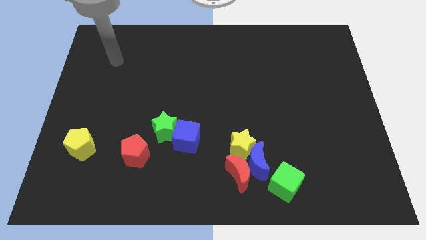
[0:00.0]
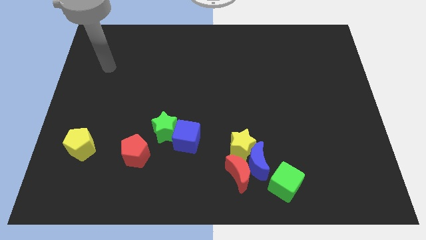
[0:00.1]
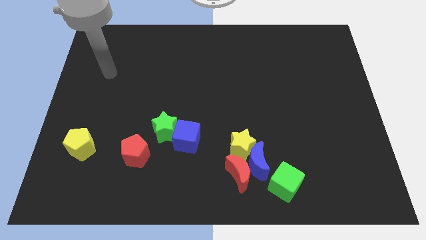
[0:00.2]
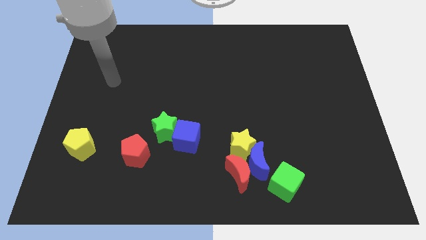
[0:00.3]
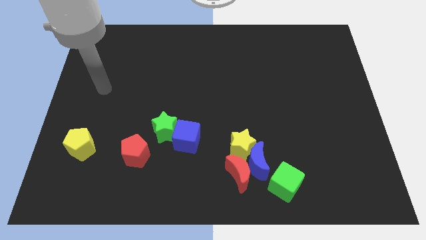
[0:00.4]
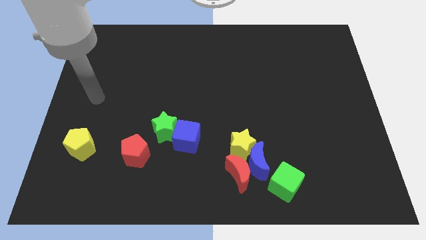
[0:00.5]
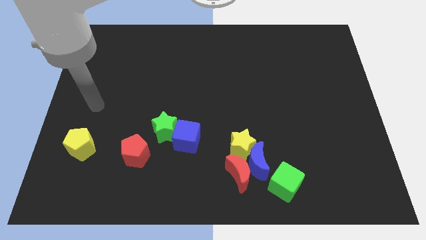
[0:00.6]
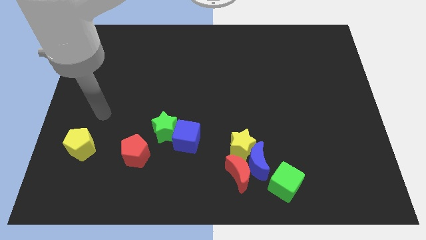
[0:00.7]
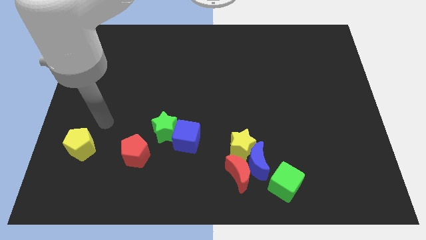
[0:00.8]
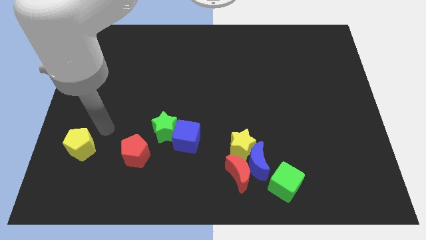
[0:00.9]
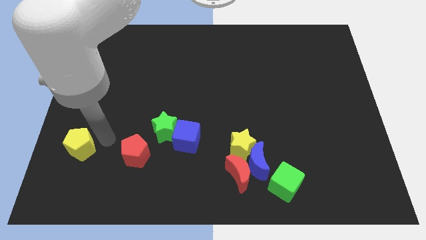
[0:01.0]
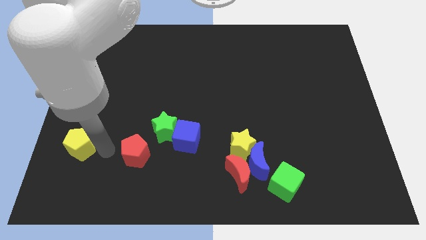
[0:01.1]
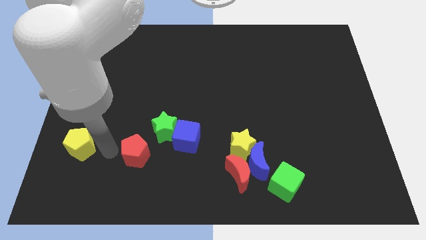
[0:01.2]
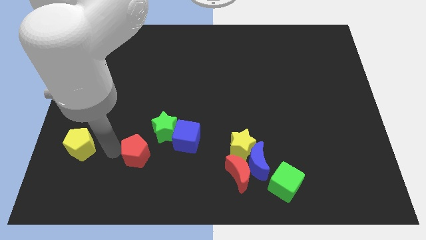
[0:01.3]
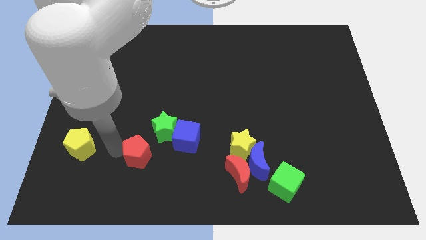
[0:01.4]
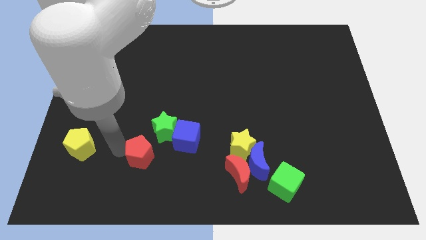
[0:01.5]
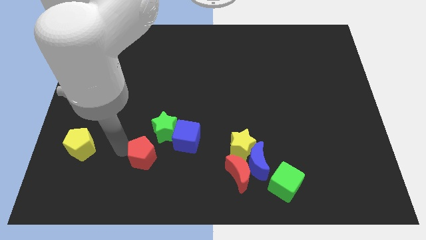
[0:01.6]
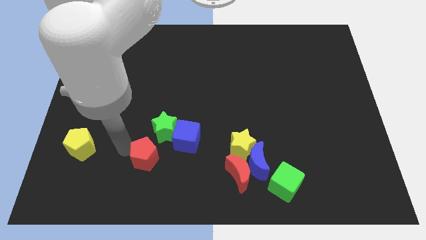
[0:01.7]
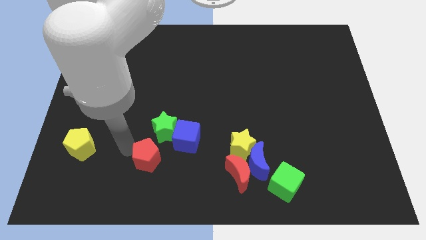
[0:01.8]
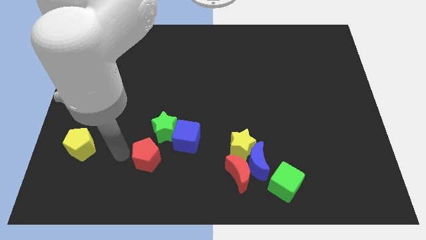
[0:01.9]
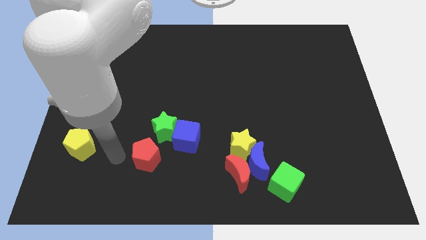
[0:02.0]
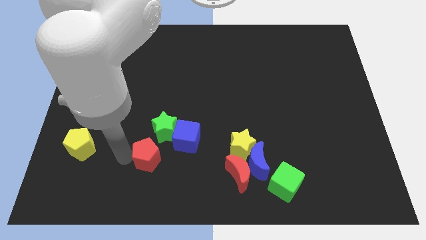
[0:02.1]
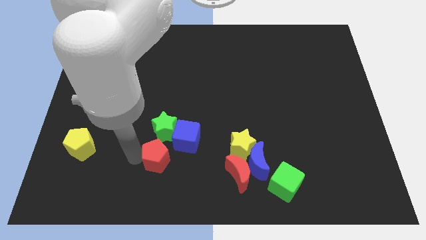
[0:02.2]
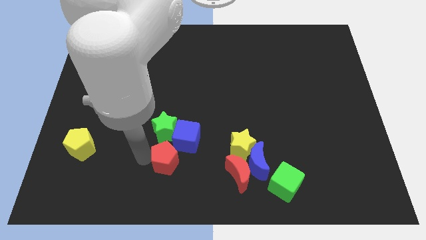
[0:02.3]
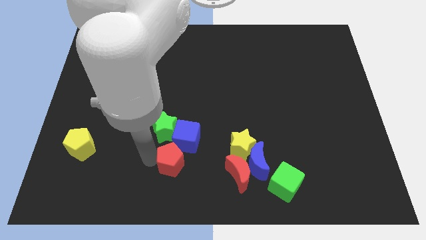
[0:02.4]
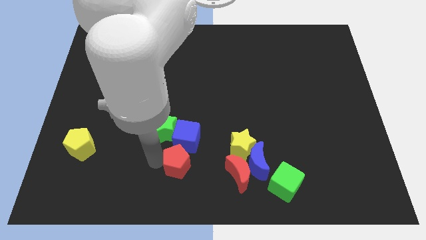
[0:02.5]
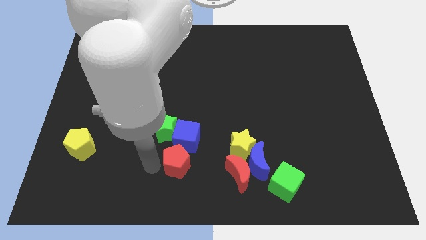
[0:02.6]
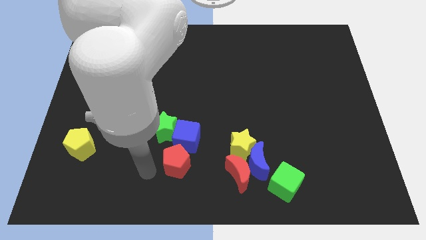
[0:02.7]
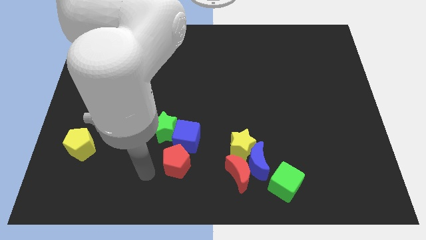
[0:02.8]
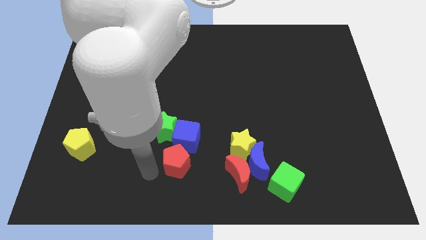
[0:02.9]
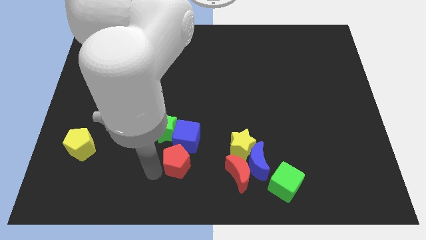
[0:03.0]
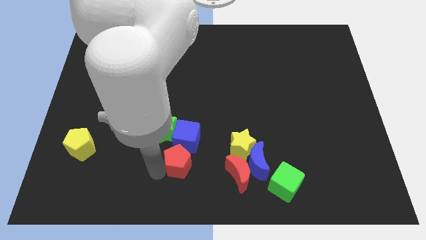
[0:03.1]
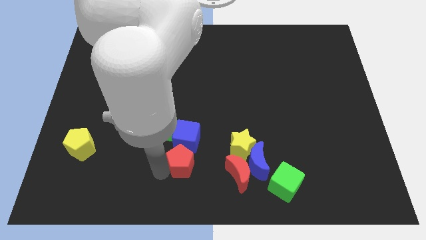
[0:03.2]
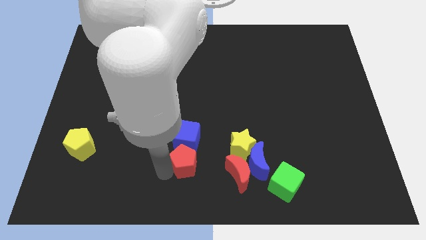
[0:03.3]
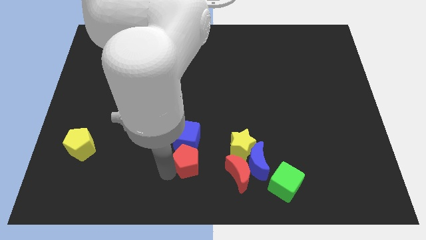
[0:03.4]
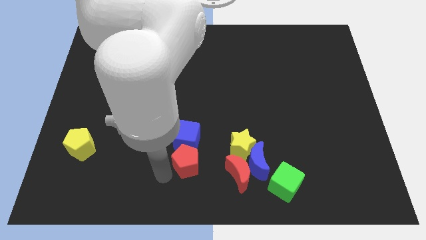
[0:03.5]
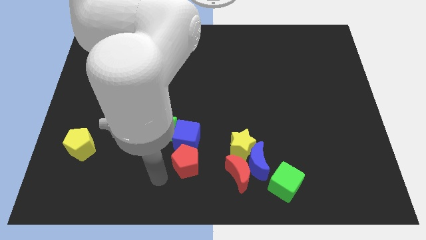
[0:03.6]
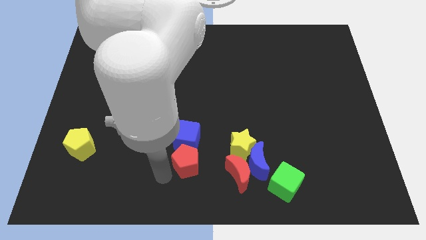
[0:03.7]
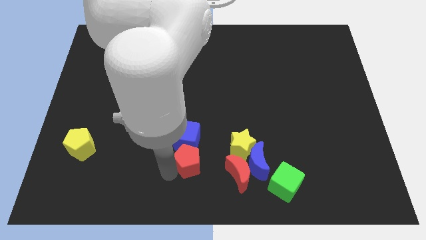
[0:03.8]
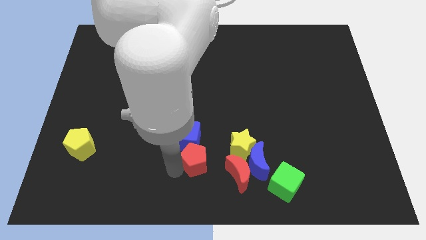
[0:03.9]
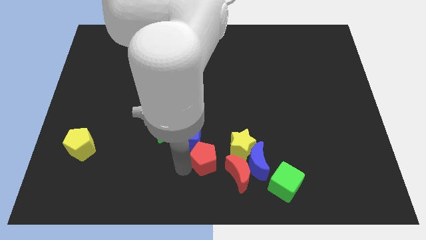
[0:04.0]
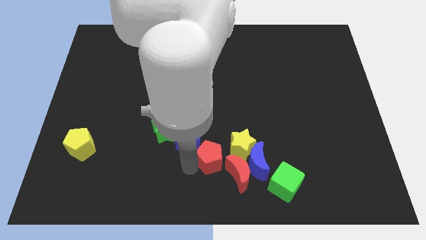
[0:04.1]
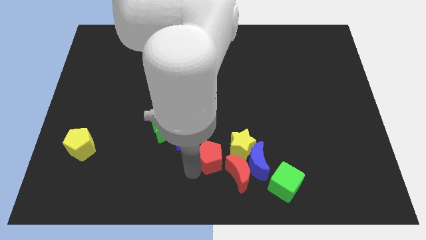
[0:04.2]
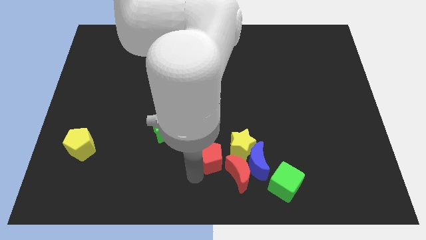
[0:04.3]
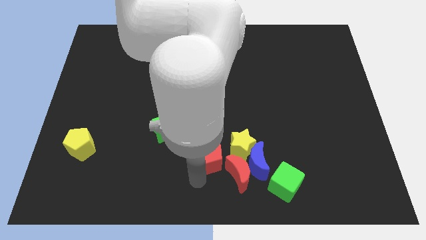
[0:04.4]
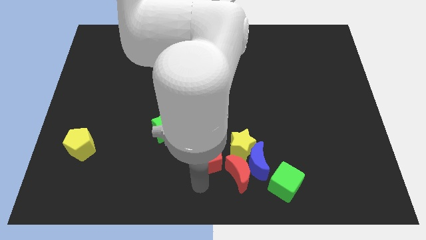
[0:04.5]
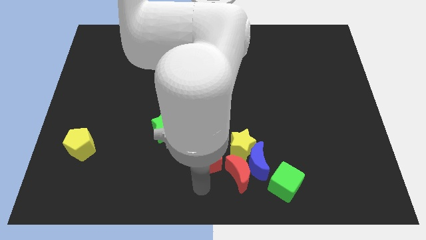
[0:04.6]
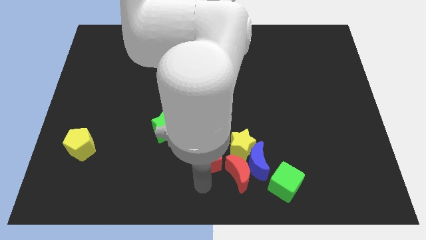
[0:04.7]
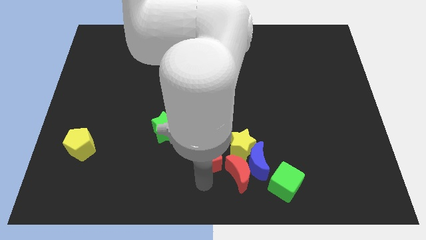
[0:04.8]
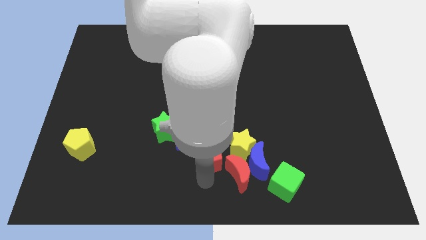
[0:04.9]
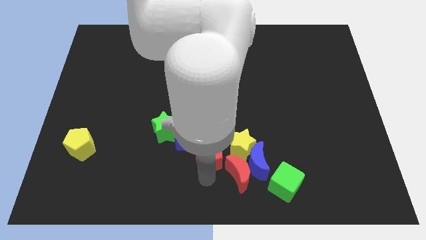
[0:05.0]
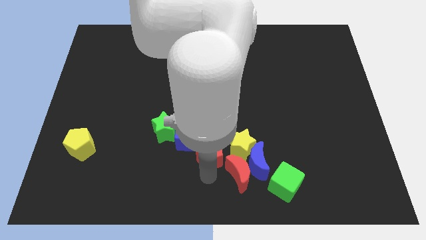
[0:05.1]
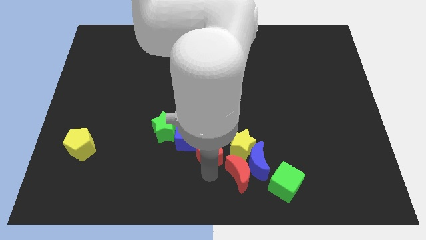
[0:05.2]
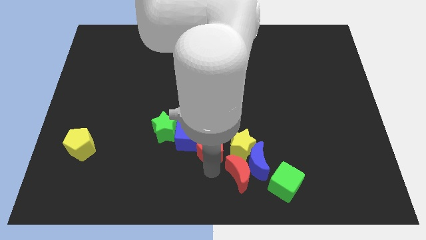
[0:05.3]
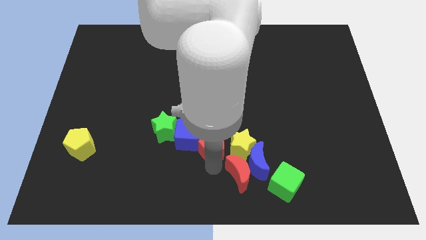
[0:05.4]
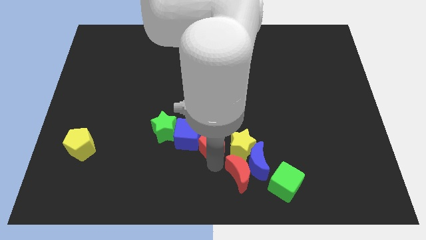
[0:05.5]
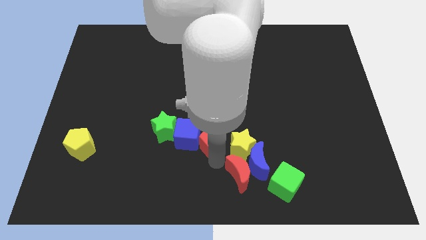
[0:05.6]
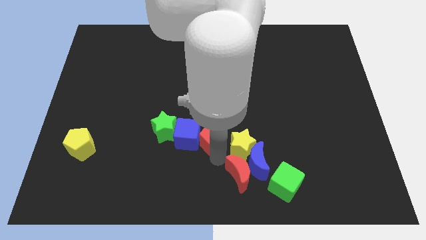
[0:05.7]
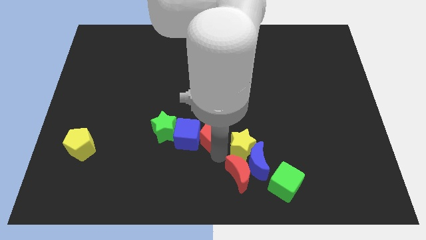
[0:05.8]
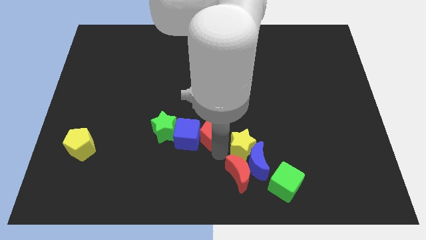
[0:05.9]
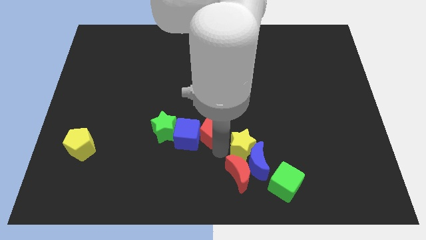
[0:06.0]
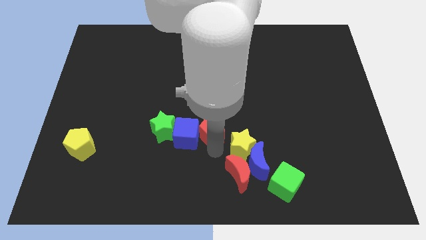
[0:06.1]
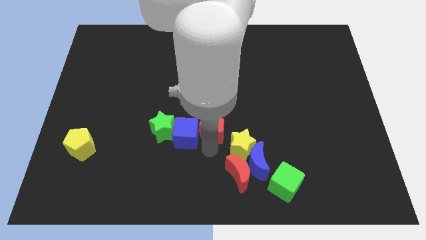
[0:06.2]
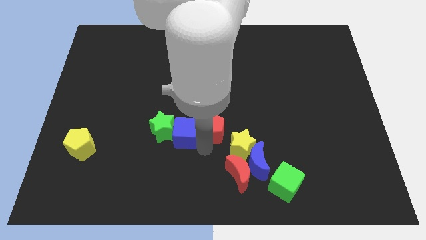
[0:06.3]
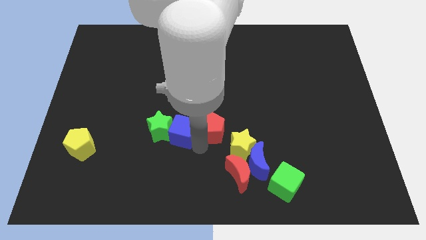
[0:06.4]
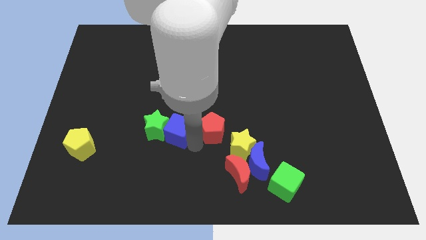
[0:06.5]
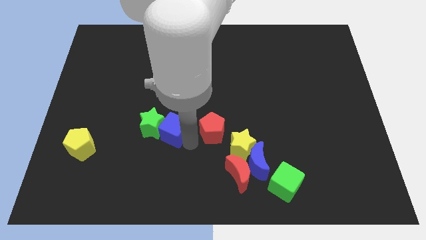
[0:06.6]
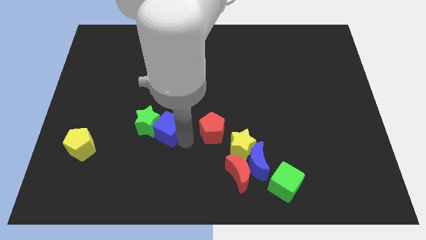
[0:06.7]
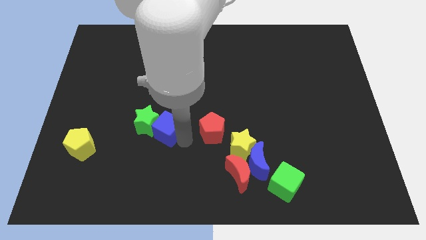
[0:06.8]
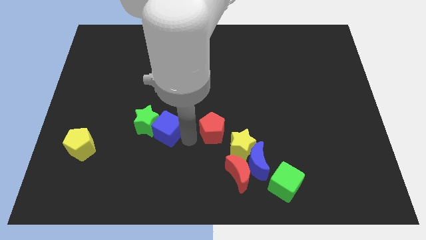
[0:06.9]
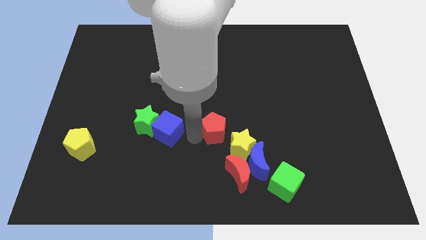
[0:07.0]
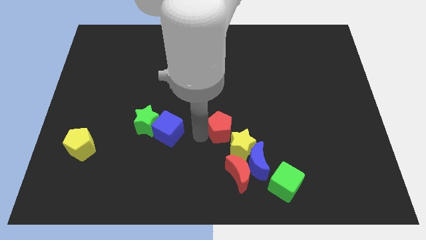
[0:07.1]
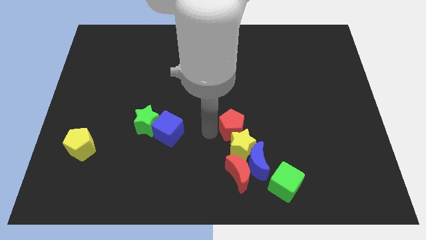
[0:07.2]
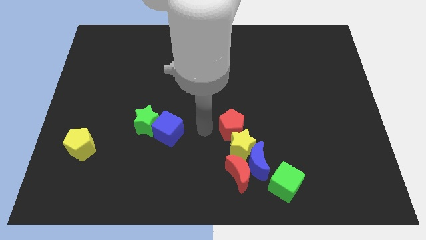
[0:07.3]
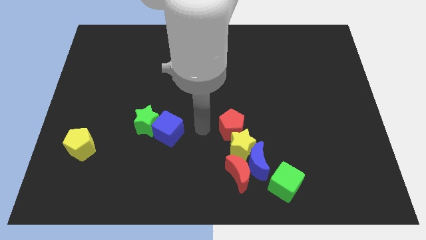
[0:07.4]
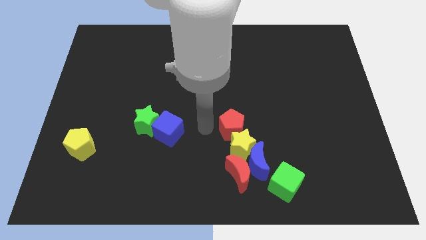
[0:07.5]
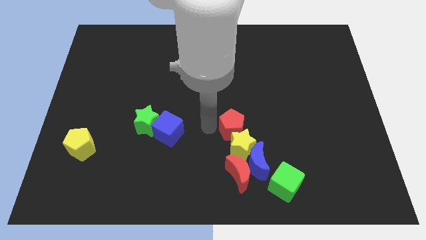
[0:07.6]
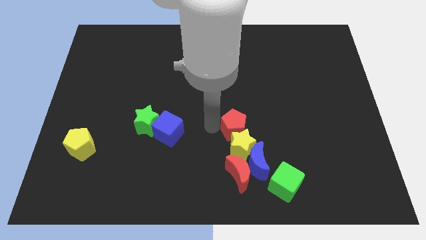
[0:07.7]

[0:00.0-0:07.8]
slide the red pentagon to the top right side of the yellow star
